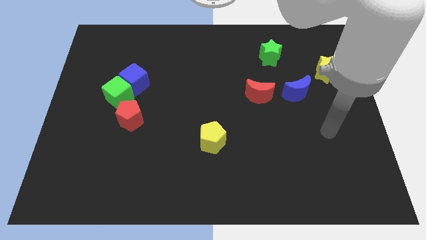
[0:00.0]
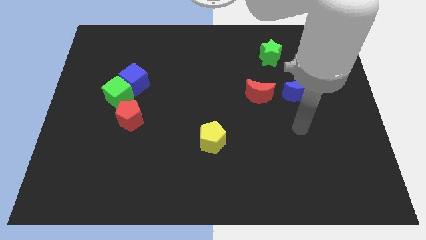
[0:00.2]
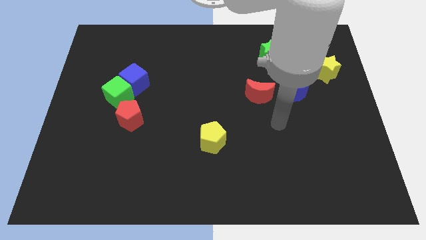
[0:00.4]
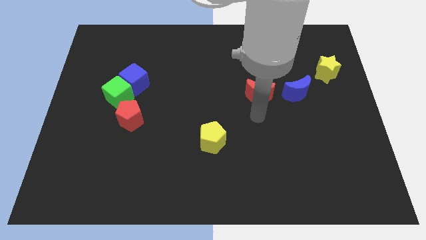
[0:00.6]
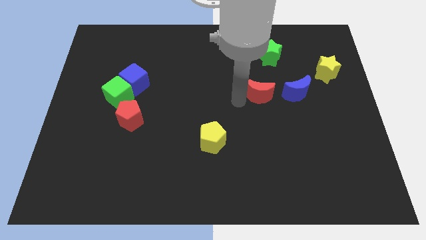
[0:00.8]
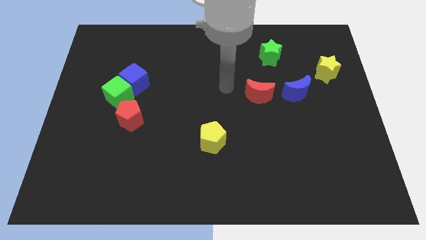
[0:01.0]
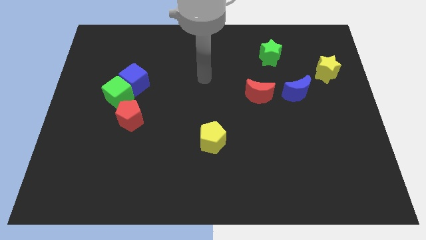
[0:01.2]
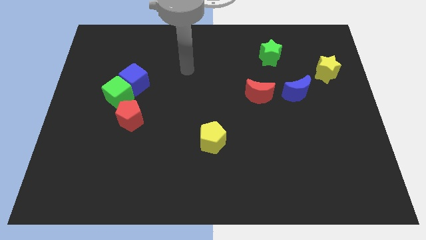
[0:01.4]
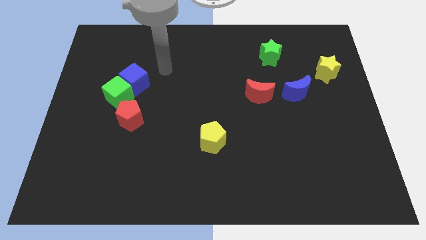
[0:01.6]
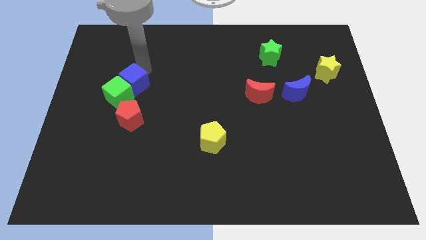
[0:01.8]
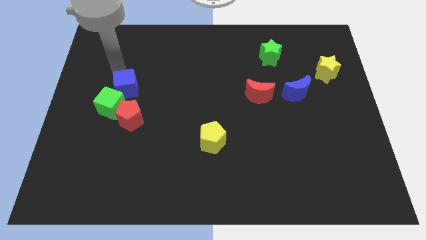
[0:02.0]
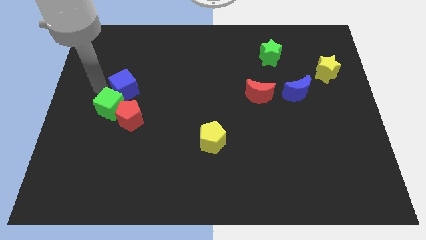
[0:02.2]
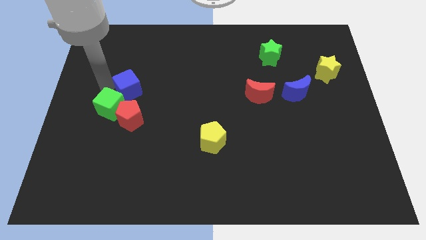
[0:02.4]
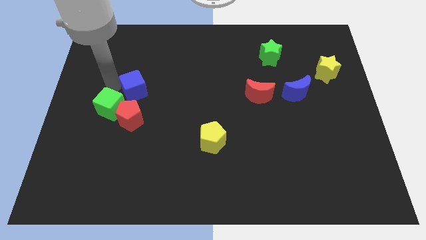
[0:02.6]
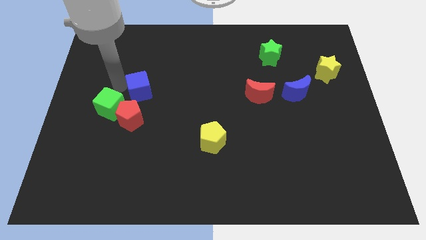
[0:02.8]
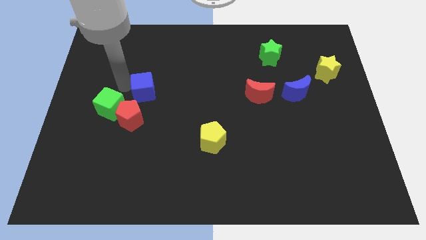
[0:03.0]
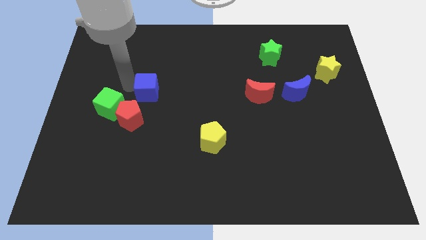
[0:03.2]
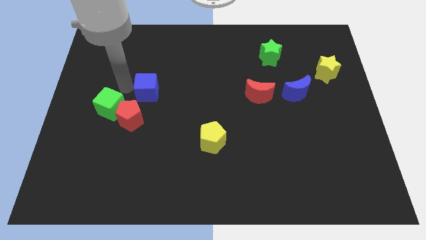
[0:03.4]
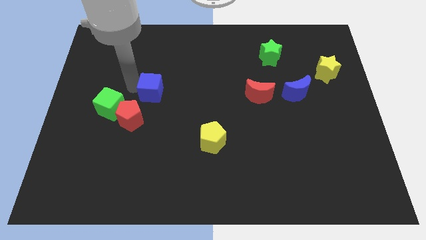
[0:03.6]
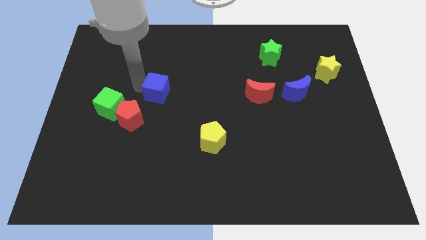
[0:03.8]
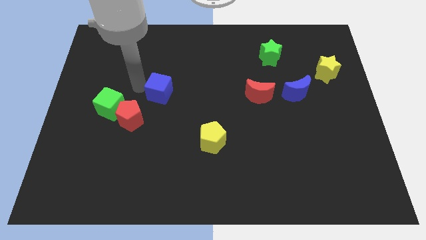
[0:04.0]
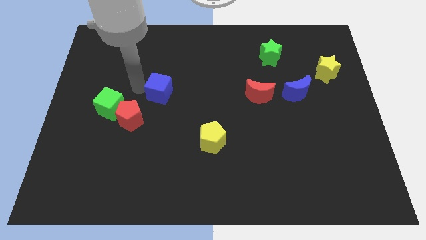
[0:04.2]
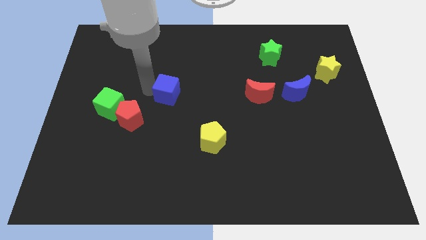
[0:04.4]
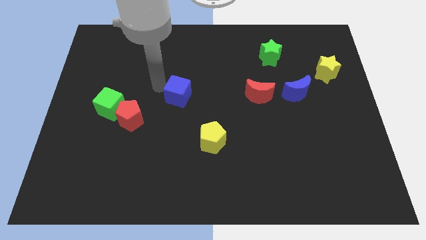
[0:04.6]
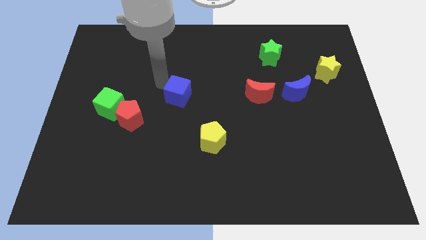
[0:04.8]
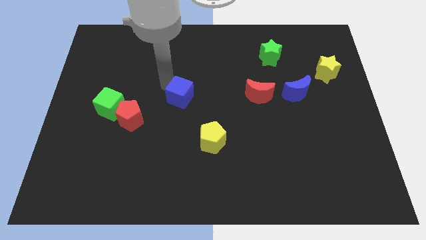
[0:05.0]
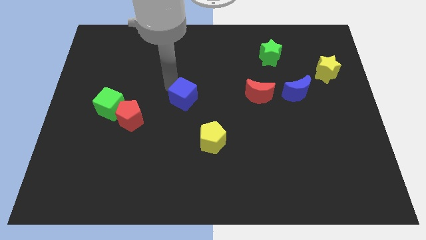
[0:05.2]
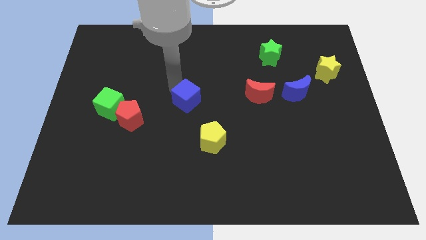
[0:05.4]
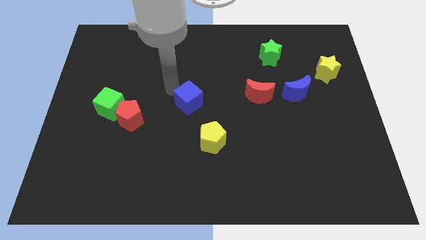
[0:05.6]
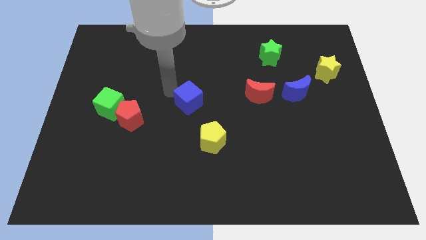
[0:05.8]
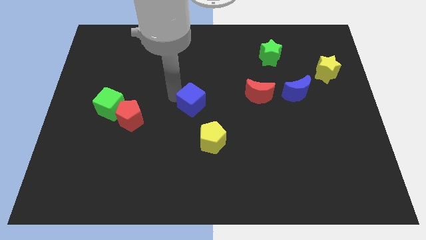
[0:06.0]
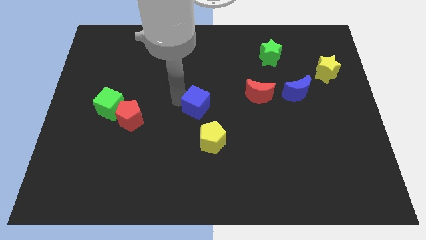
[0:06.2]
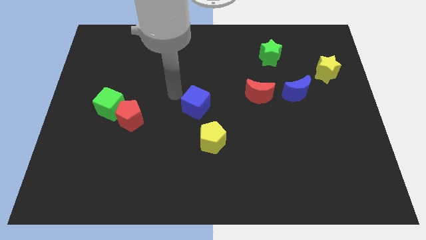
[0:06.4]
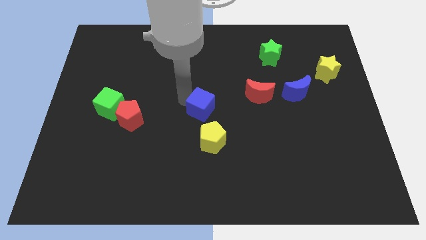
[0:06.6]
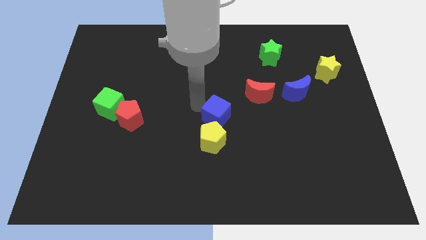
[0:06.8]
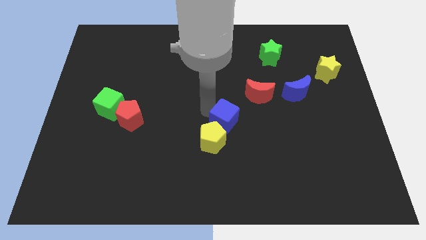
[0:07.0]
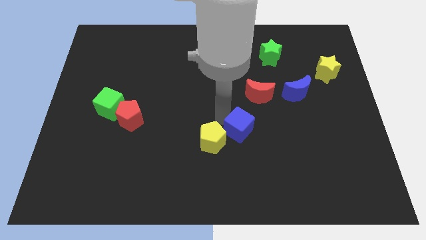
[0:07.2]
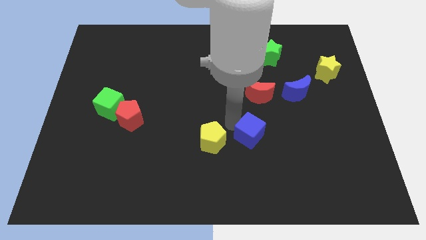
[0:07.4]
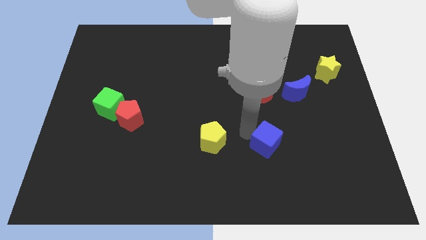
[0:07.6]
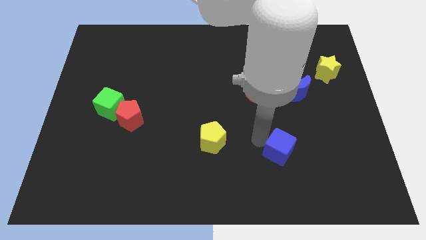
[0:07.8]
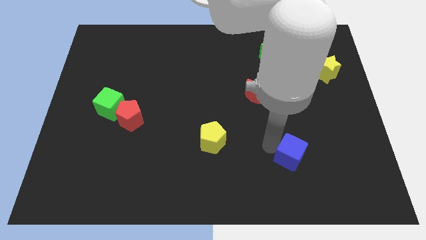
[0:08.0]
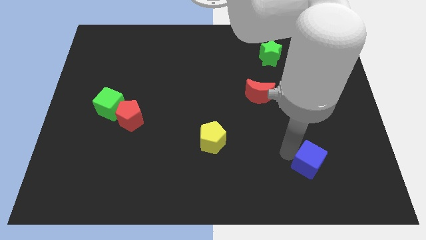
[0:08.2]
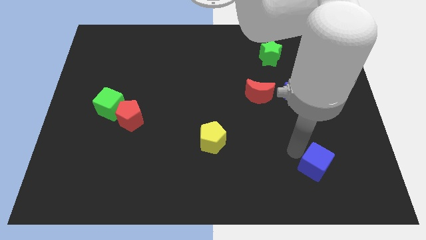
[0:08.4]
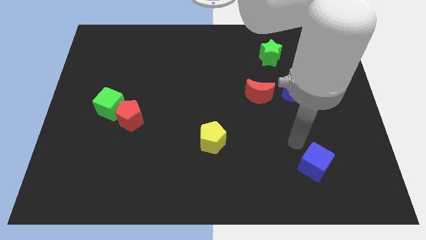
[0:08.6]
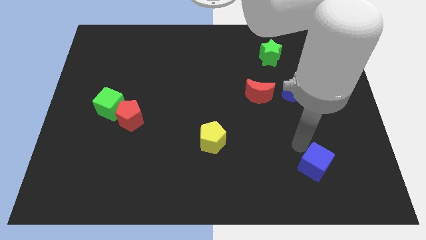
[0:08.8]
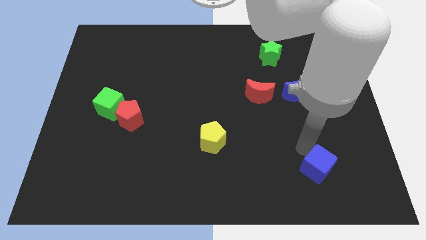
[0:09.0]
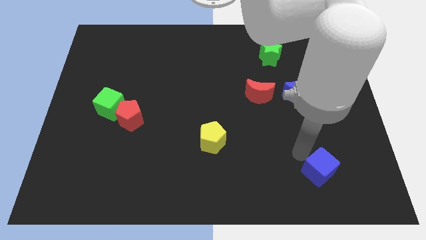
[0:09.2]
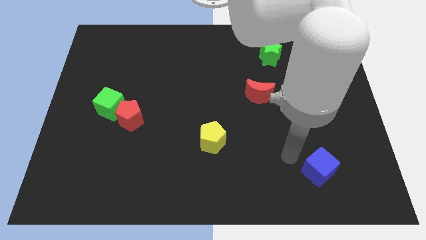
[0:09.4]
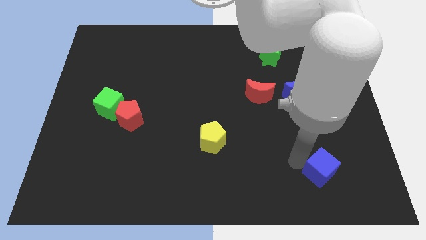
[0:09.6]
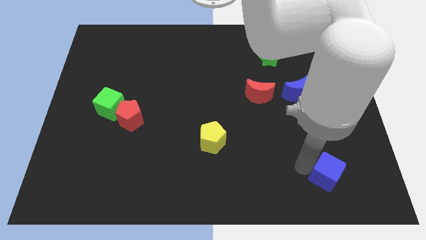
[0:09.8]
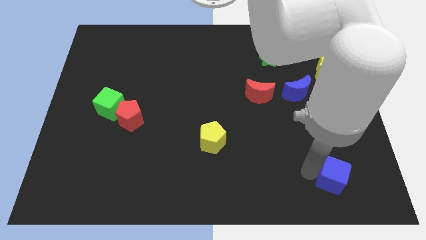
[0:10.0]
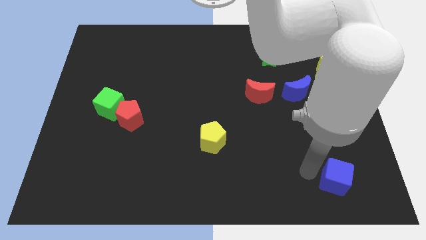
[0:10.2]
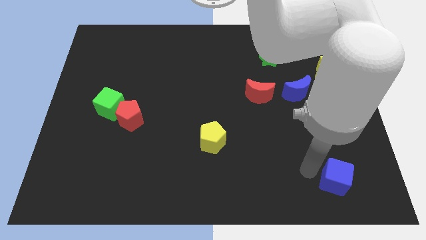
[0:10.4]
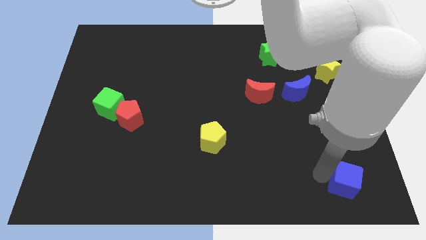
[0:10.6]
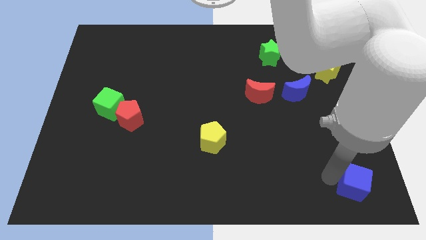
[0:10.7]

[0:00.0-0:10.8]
slide the blue cube to the bottom right of the board
